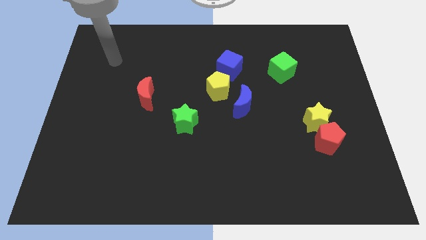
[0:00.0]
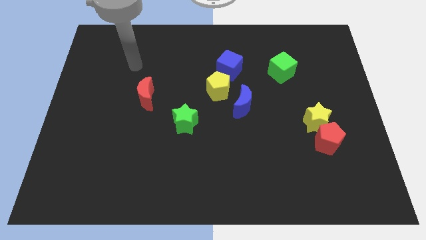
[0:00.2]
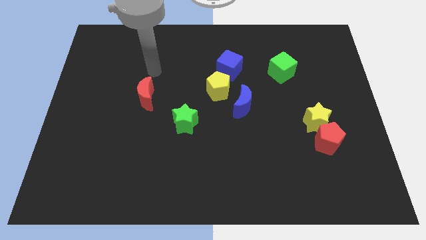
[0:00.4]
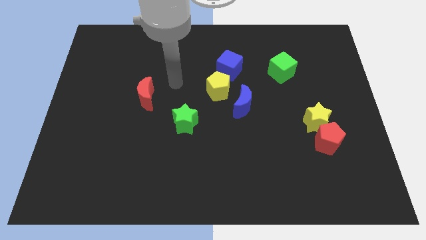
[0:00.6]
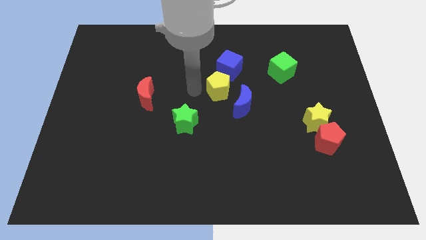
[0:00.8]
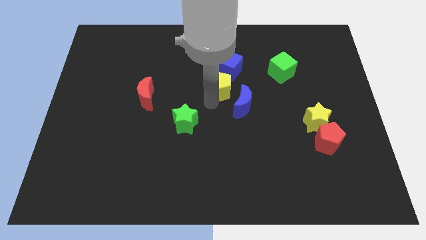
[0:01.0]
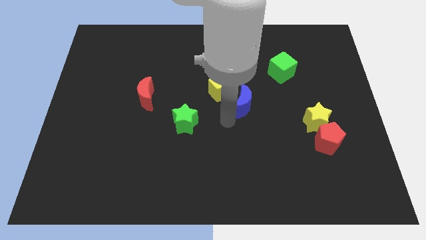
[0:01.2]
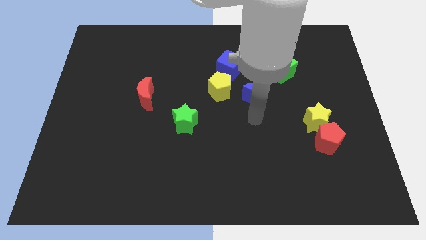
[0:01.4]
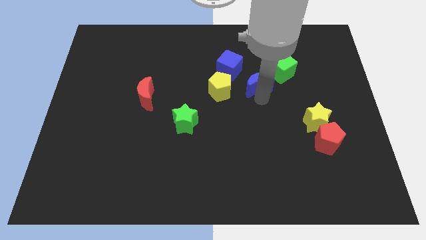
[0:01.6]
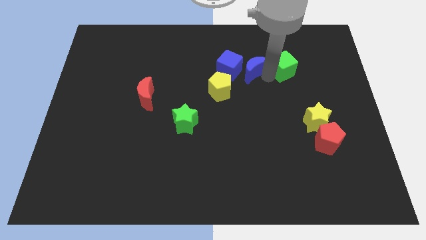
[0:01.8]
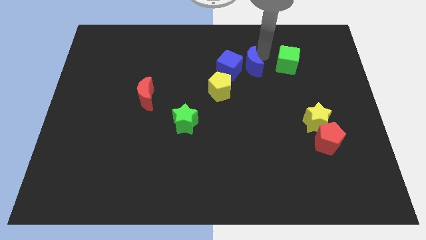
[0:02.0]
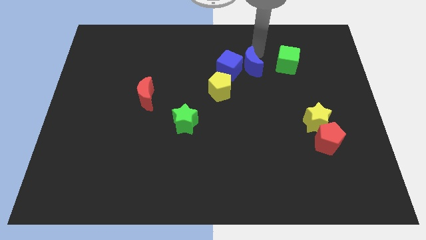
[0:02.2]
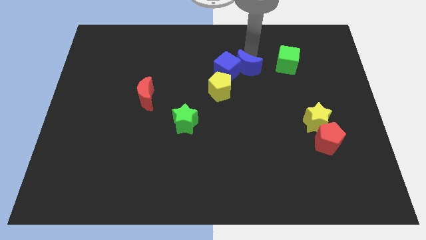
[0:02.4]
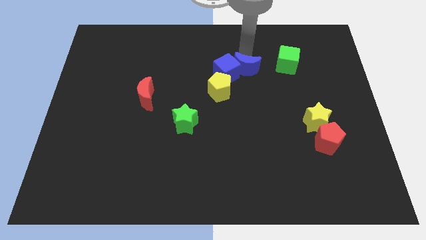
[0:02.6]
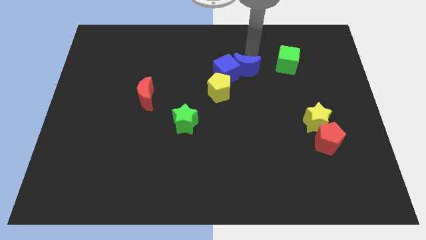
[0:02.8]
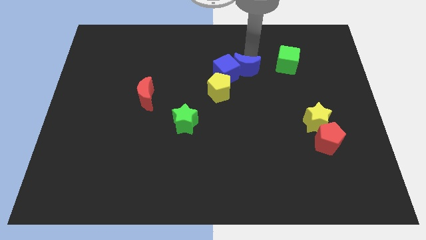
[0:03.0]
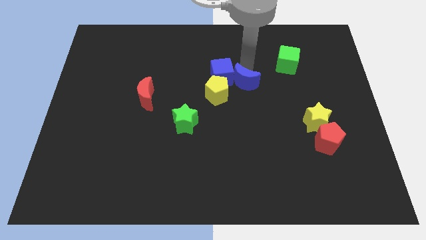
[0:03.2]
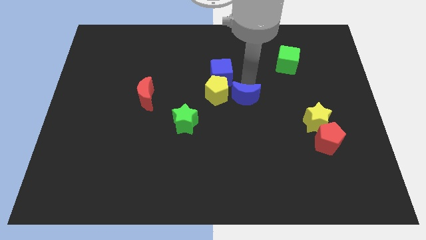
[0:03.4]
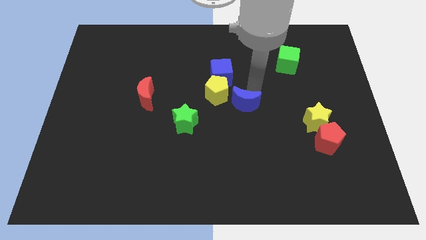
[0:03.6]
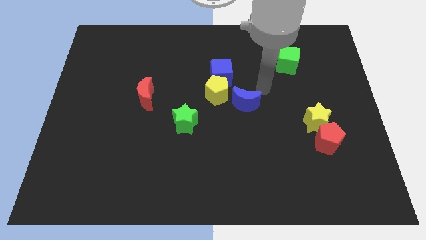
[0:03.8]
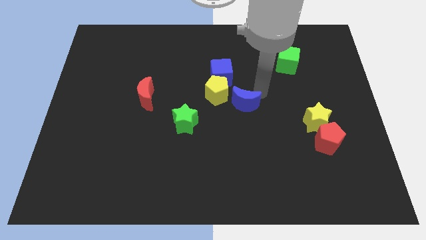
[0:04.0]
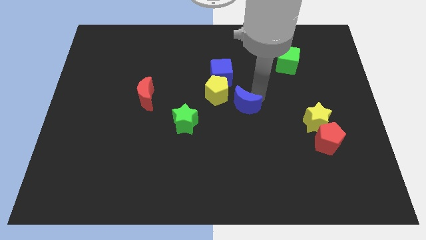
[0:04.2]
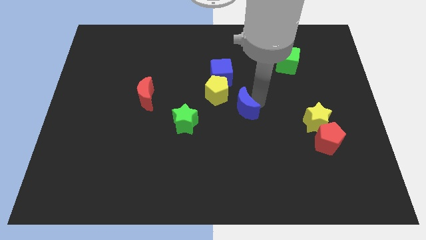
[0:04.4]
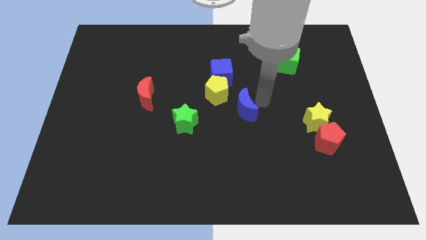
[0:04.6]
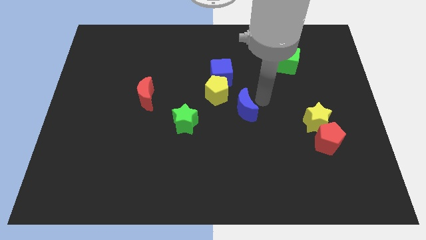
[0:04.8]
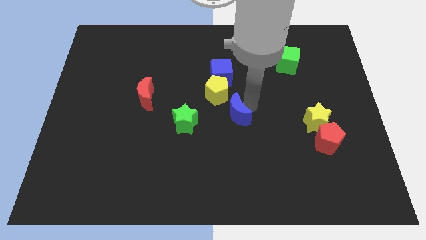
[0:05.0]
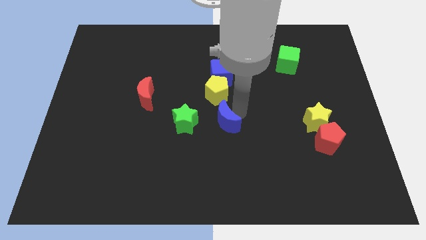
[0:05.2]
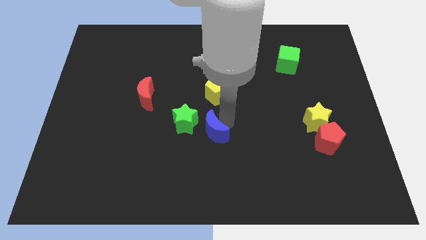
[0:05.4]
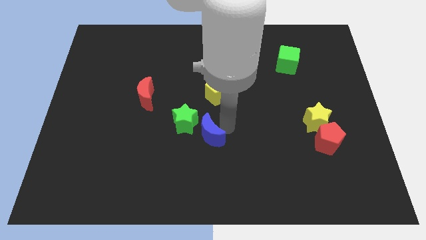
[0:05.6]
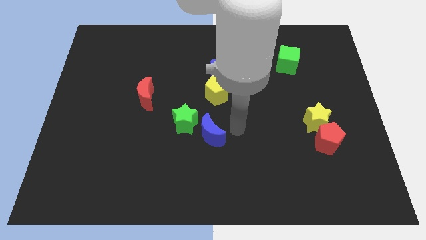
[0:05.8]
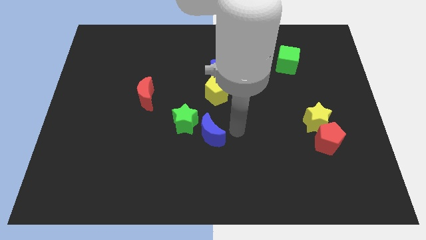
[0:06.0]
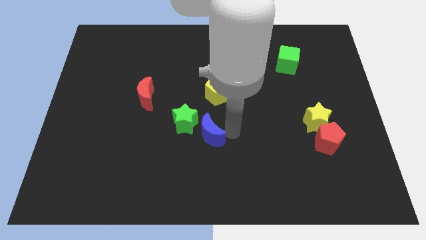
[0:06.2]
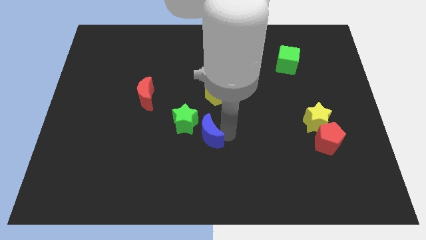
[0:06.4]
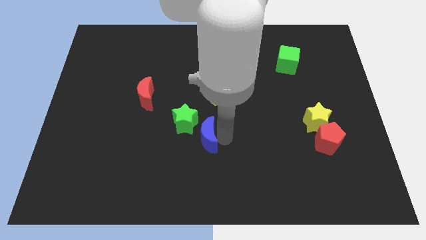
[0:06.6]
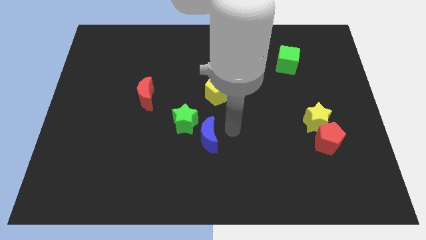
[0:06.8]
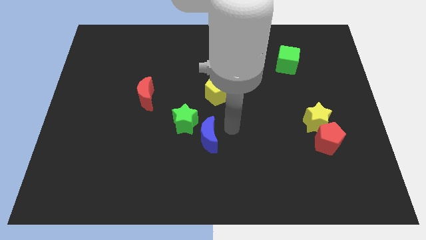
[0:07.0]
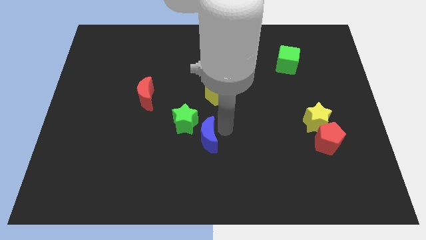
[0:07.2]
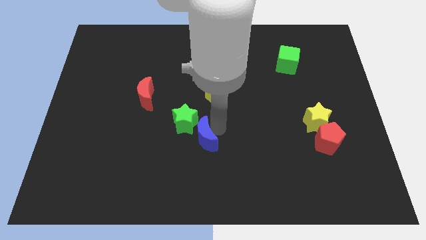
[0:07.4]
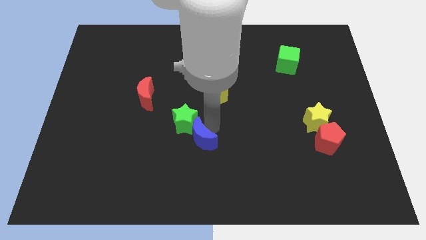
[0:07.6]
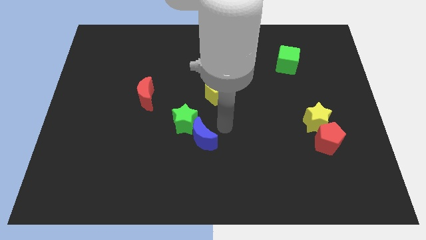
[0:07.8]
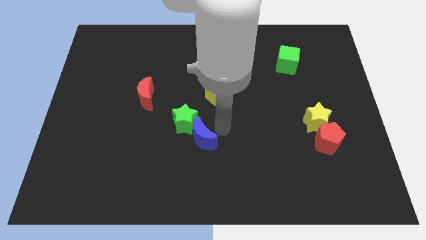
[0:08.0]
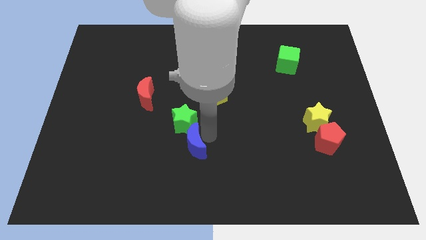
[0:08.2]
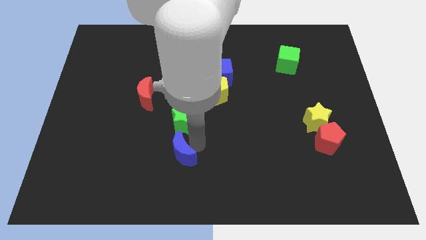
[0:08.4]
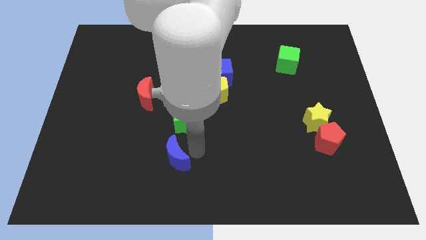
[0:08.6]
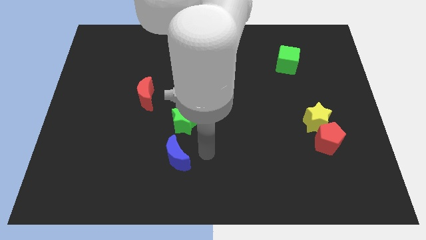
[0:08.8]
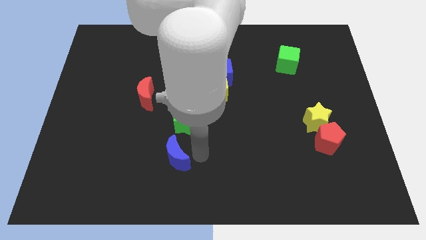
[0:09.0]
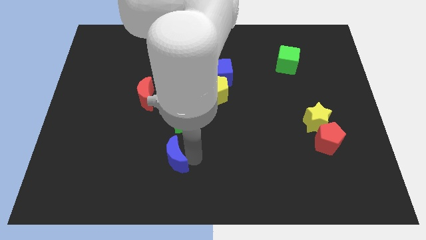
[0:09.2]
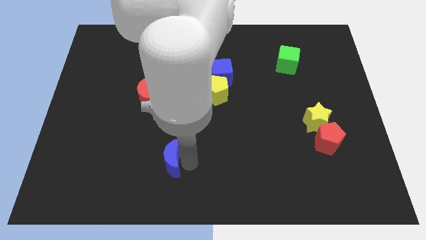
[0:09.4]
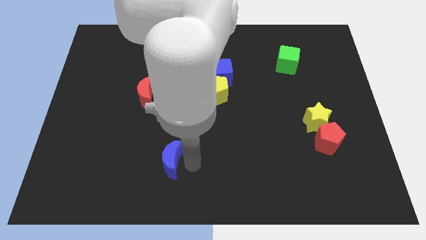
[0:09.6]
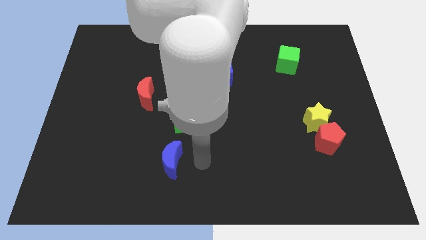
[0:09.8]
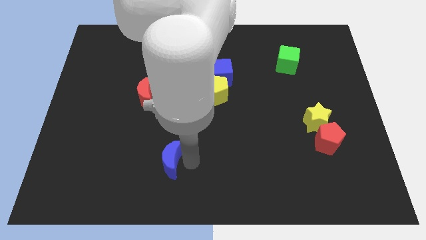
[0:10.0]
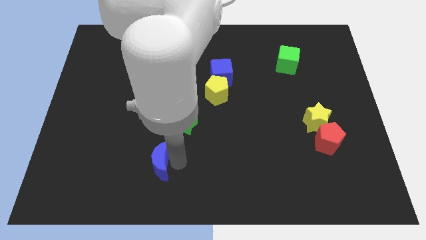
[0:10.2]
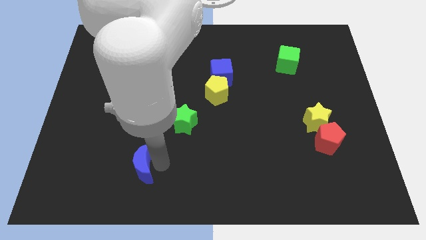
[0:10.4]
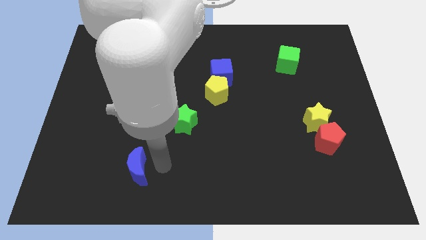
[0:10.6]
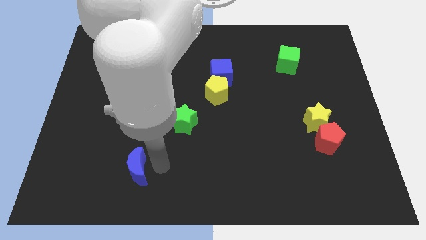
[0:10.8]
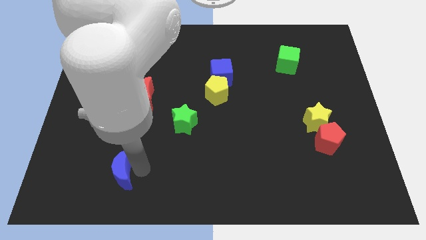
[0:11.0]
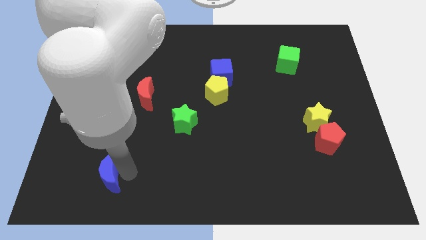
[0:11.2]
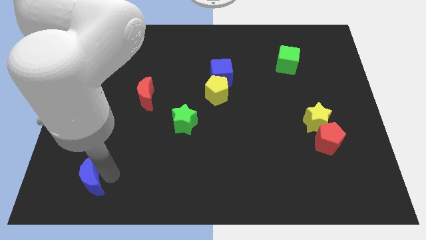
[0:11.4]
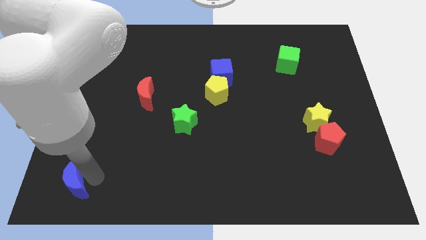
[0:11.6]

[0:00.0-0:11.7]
put the blue moon to the bottom left
